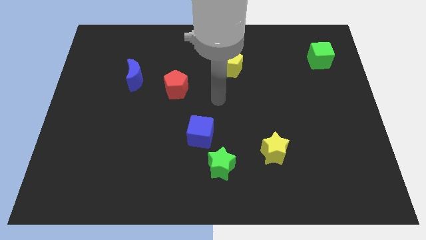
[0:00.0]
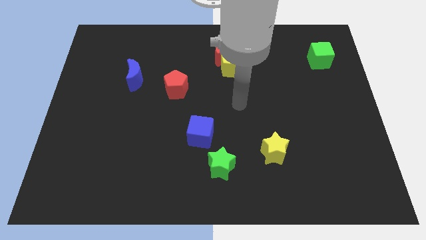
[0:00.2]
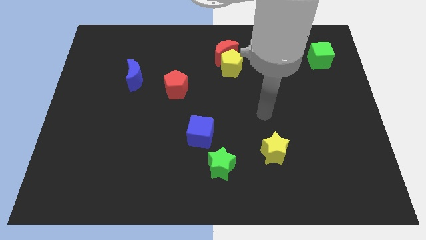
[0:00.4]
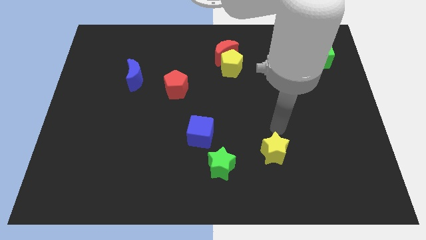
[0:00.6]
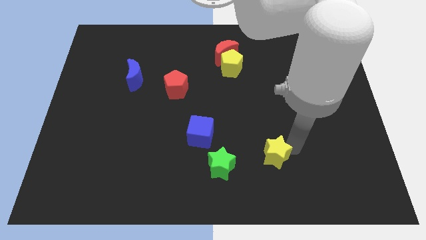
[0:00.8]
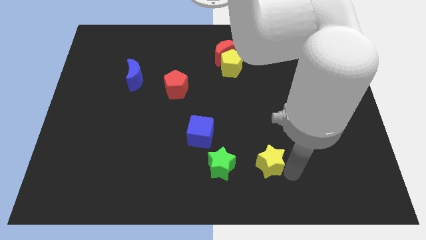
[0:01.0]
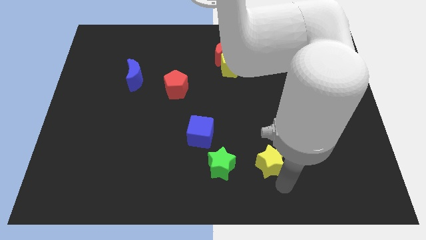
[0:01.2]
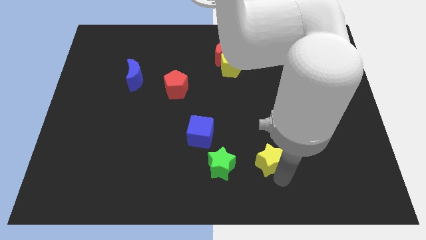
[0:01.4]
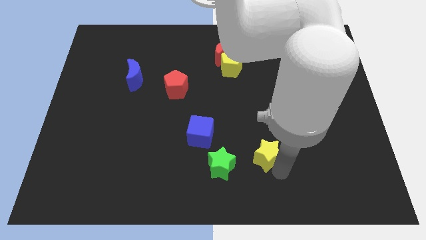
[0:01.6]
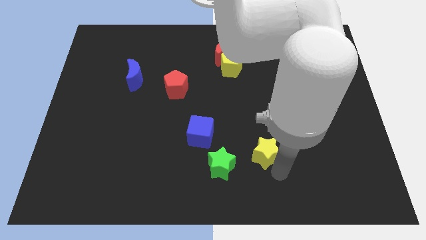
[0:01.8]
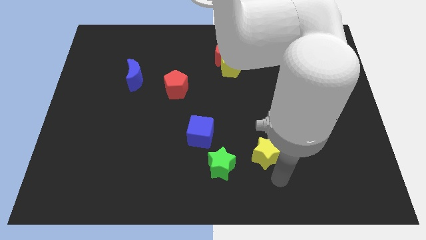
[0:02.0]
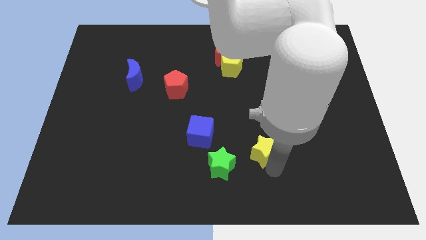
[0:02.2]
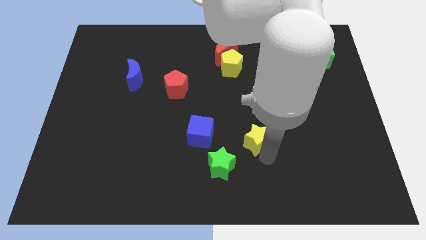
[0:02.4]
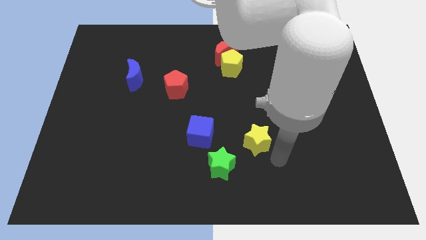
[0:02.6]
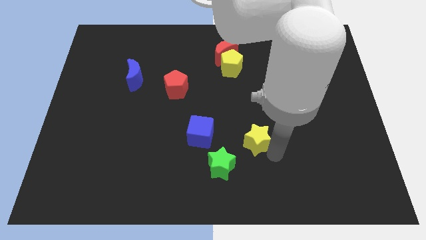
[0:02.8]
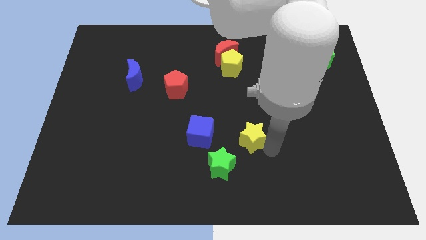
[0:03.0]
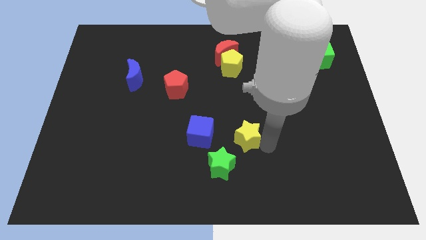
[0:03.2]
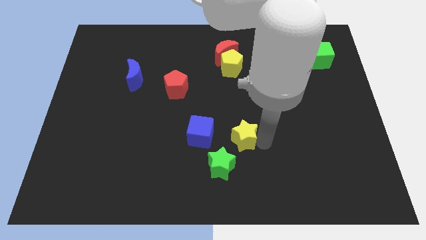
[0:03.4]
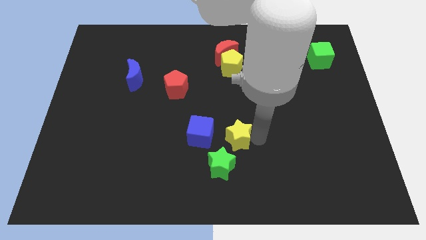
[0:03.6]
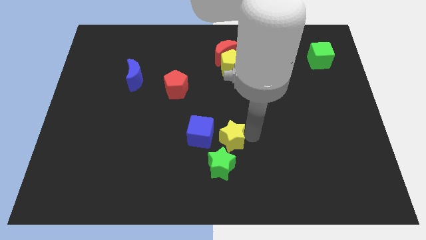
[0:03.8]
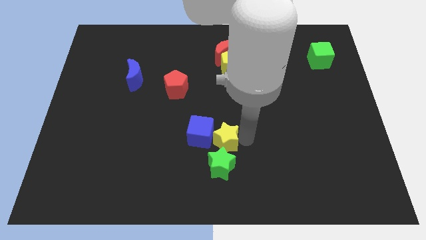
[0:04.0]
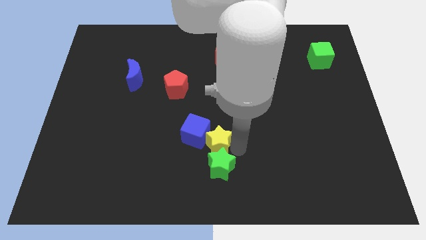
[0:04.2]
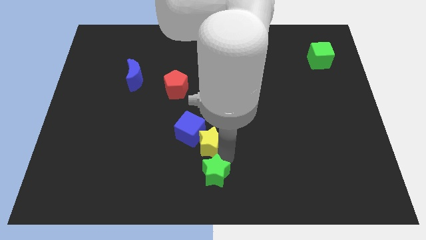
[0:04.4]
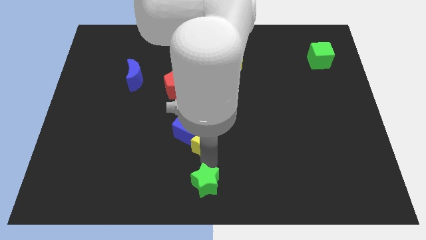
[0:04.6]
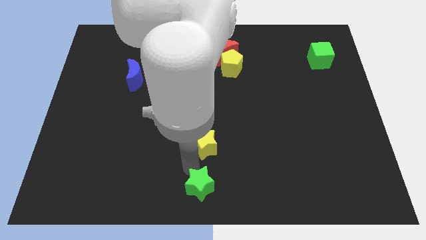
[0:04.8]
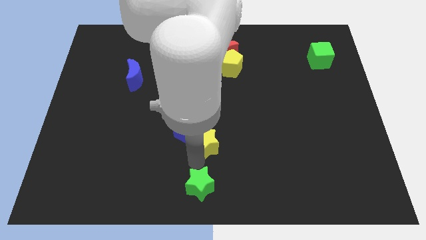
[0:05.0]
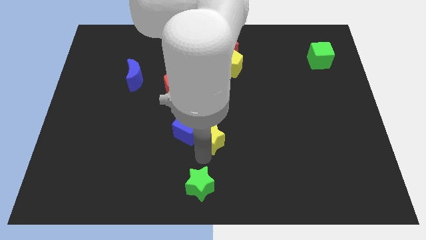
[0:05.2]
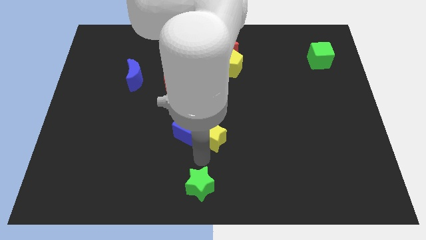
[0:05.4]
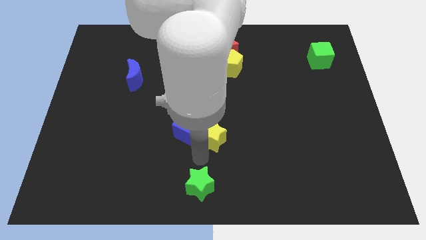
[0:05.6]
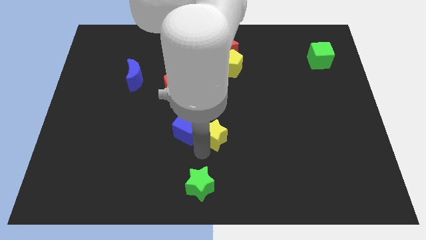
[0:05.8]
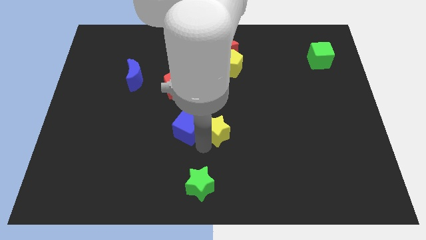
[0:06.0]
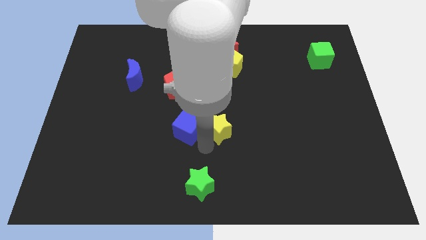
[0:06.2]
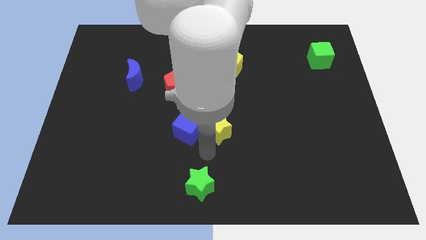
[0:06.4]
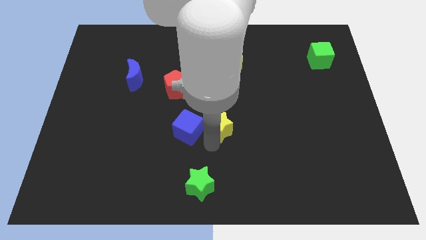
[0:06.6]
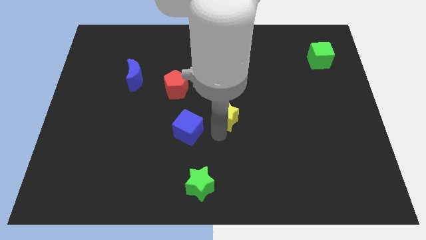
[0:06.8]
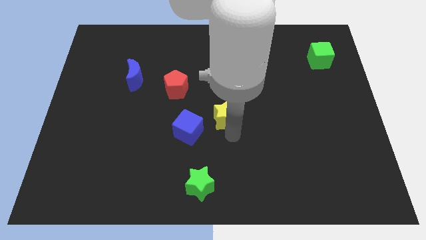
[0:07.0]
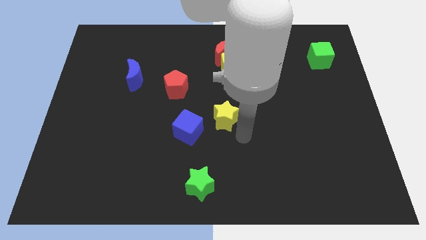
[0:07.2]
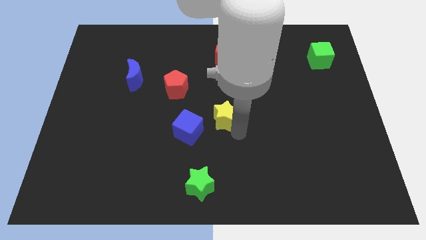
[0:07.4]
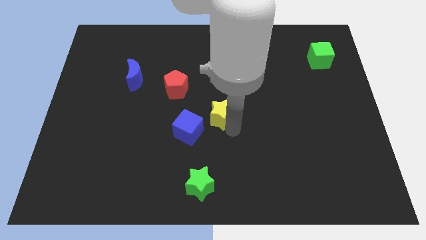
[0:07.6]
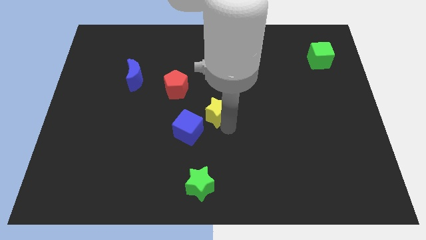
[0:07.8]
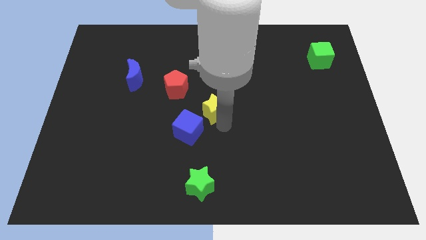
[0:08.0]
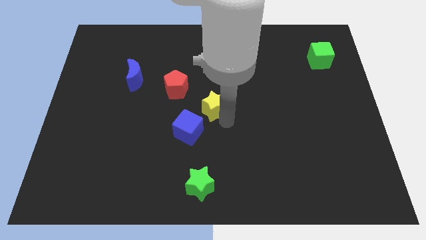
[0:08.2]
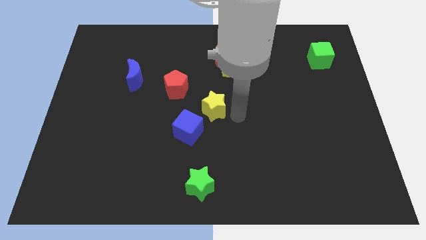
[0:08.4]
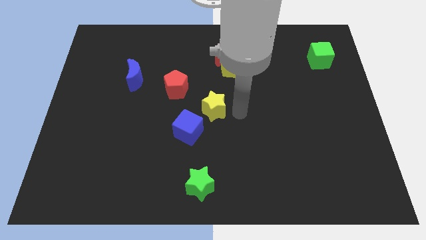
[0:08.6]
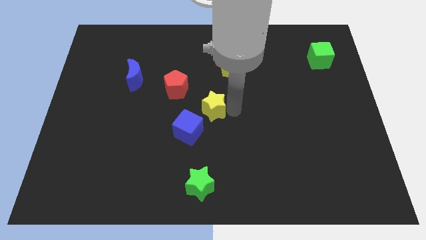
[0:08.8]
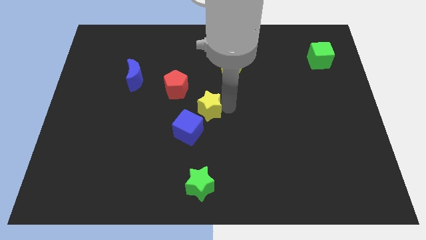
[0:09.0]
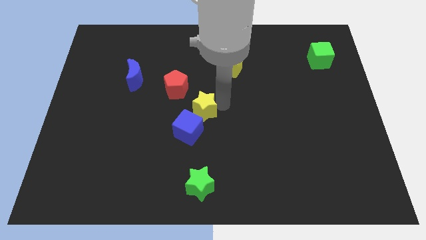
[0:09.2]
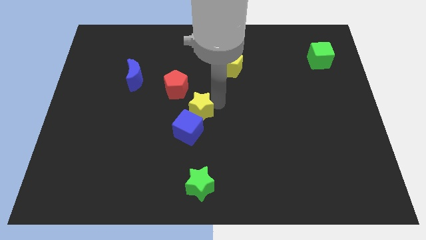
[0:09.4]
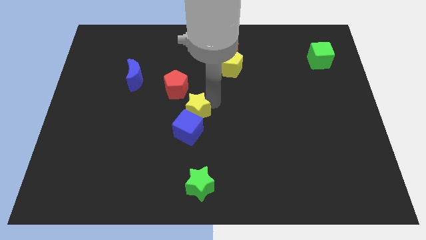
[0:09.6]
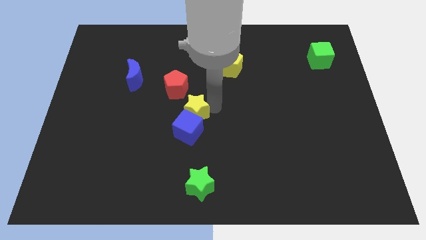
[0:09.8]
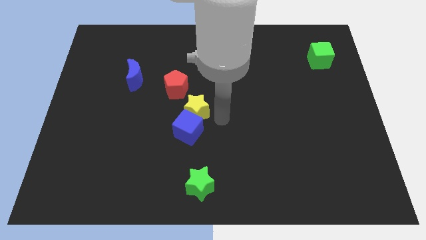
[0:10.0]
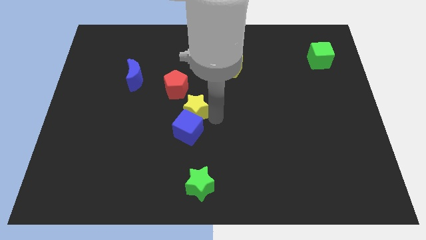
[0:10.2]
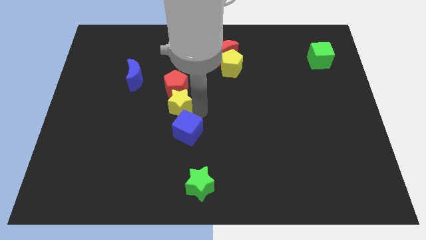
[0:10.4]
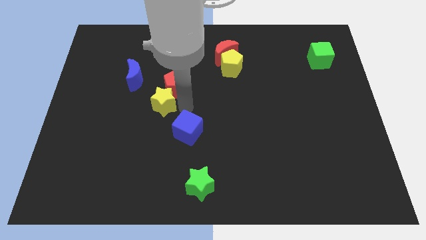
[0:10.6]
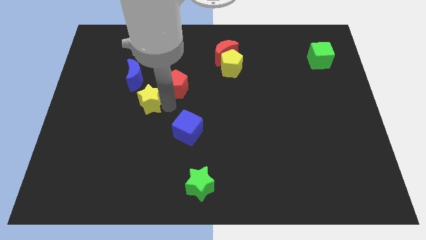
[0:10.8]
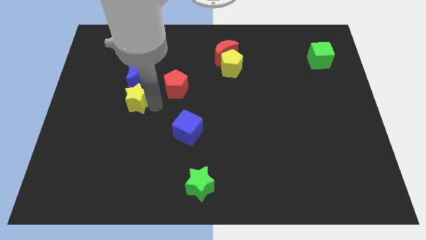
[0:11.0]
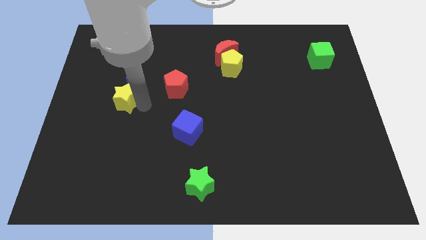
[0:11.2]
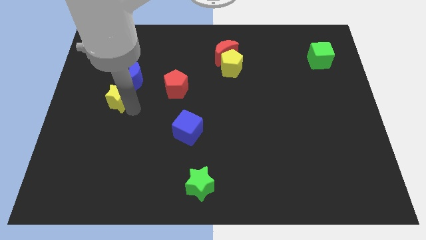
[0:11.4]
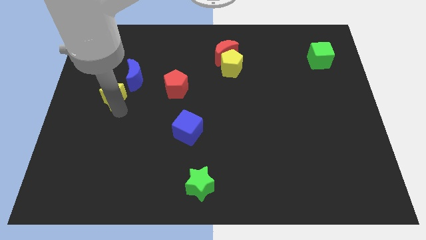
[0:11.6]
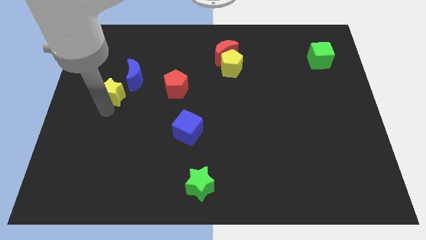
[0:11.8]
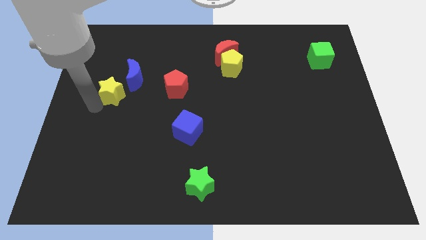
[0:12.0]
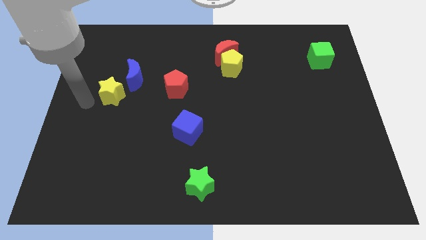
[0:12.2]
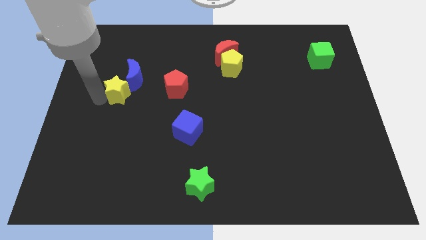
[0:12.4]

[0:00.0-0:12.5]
push the yellow star to the blue moon

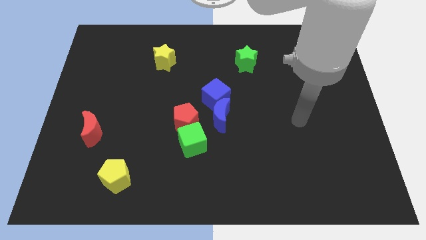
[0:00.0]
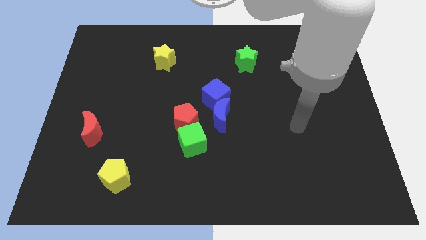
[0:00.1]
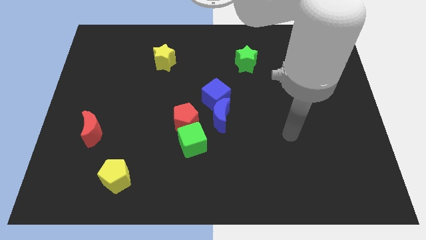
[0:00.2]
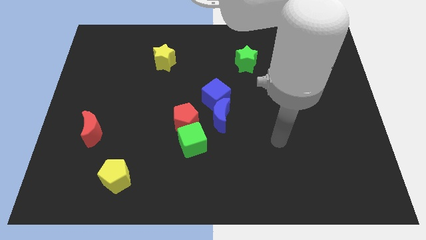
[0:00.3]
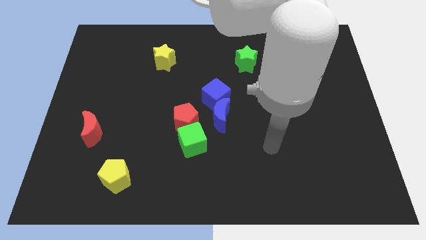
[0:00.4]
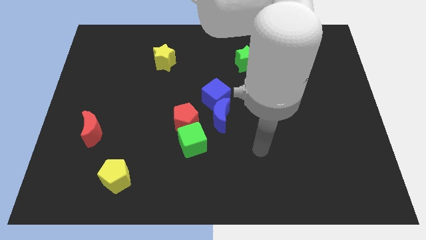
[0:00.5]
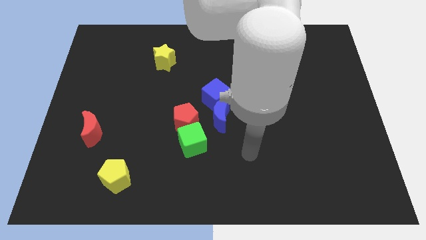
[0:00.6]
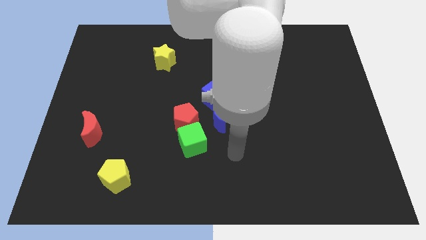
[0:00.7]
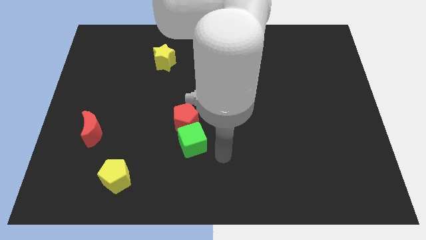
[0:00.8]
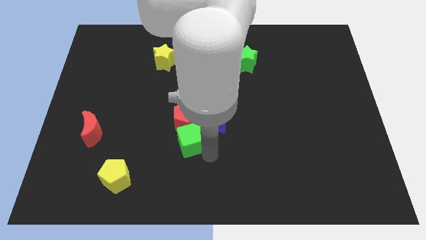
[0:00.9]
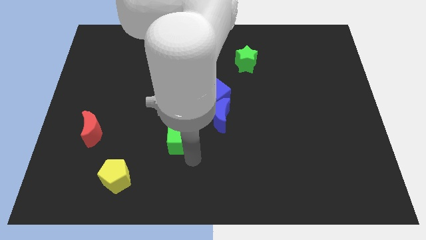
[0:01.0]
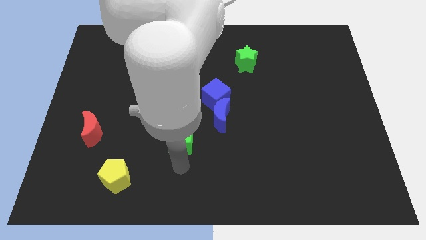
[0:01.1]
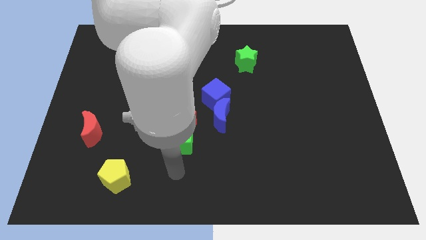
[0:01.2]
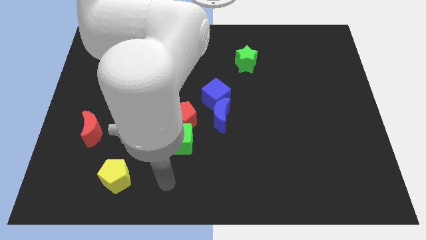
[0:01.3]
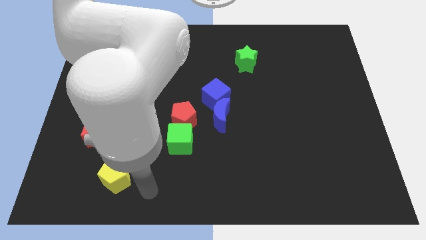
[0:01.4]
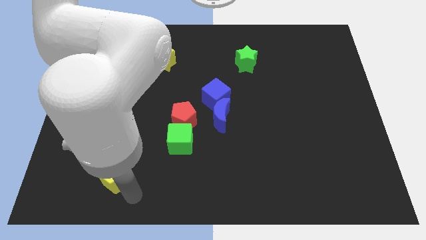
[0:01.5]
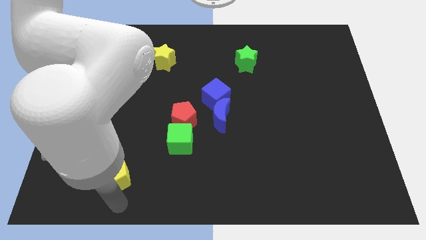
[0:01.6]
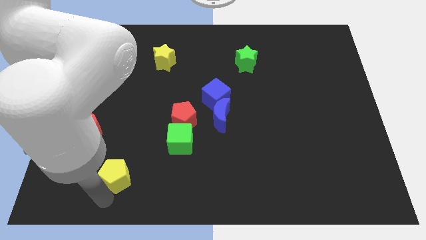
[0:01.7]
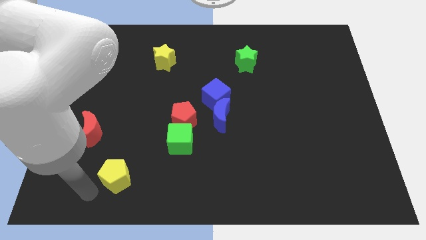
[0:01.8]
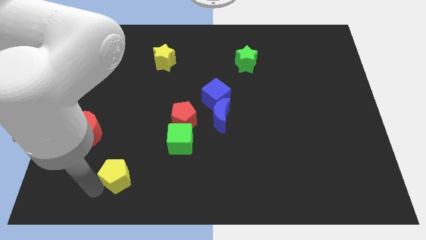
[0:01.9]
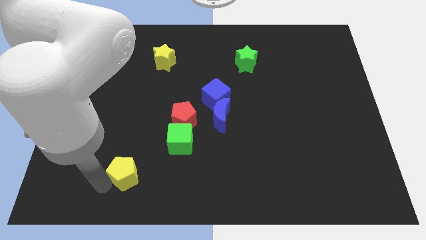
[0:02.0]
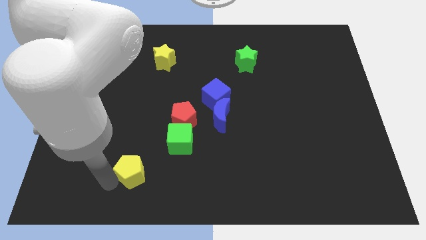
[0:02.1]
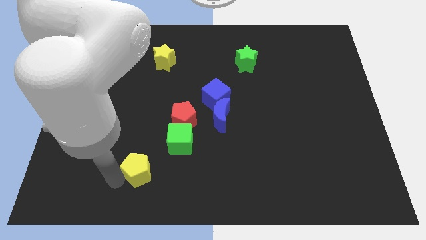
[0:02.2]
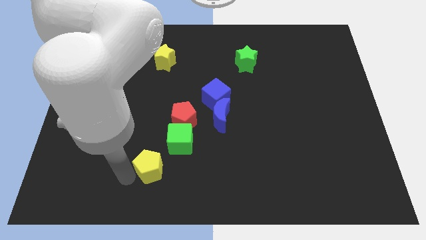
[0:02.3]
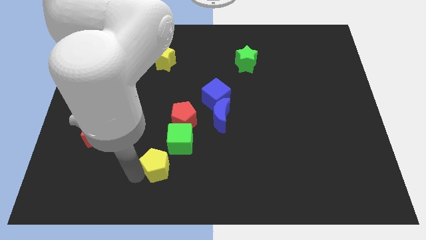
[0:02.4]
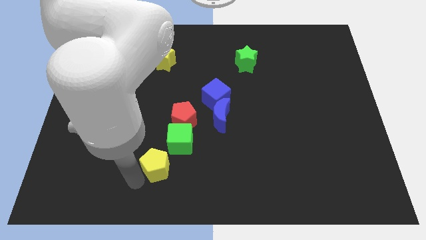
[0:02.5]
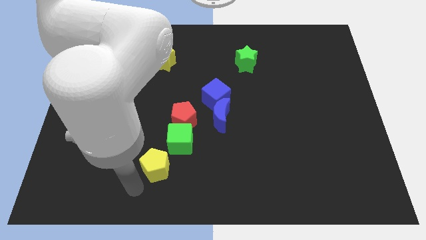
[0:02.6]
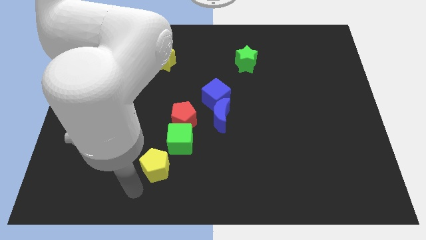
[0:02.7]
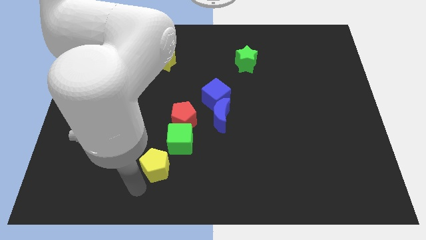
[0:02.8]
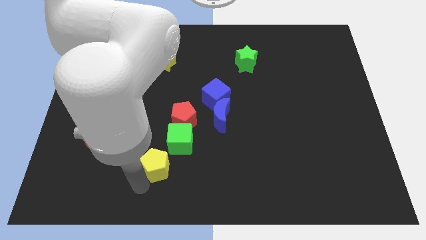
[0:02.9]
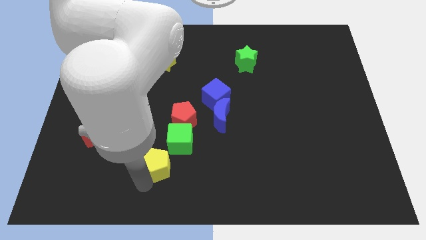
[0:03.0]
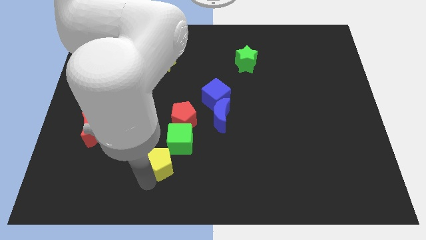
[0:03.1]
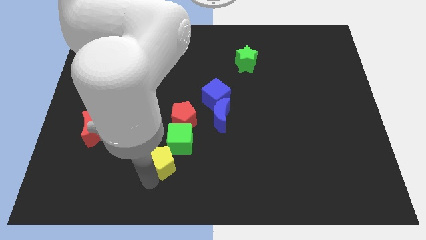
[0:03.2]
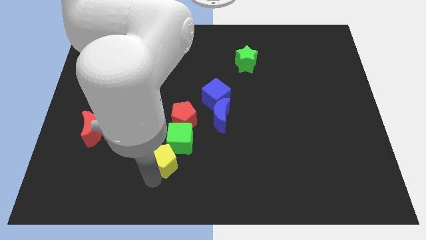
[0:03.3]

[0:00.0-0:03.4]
slide the yellow pentagon to the green cube
